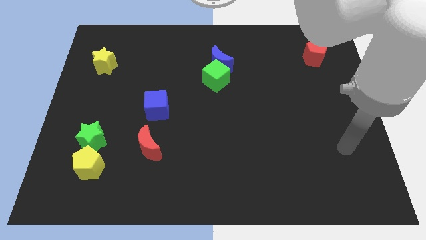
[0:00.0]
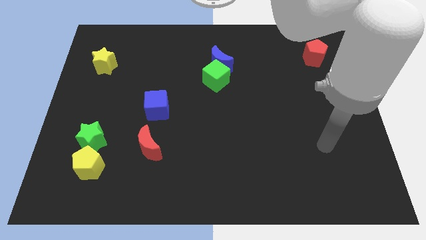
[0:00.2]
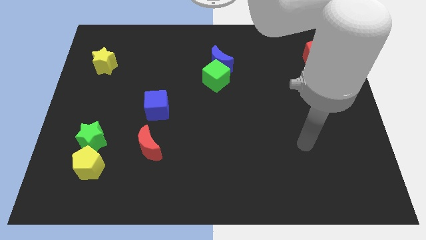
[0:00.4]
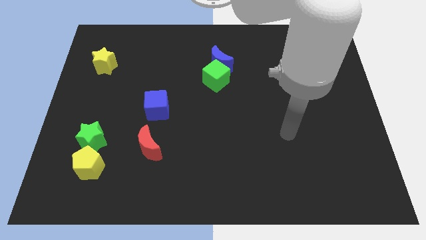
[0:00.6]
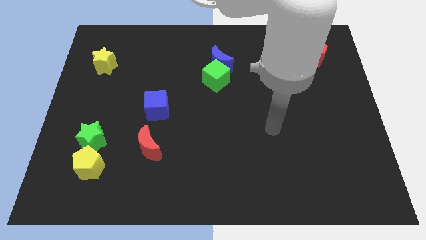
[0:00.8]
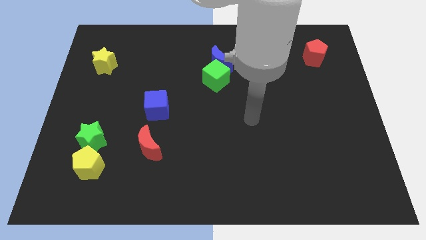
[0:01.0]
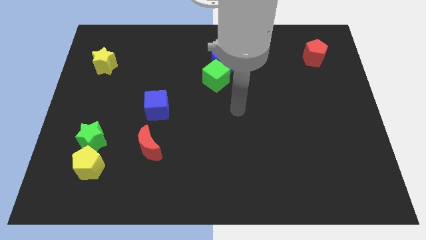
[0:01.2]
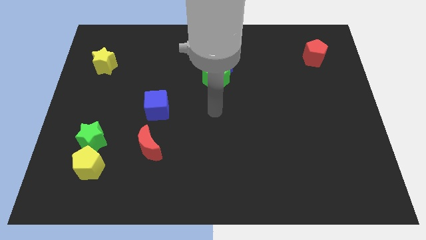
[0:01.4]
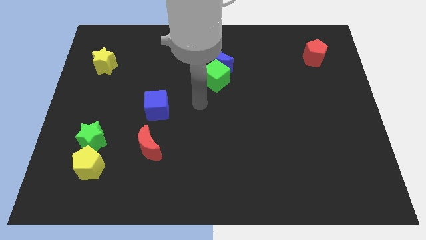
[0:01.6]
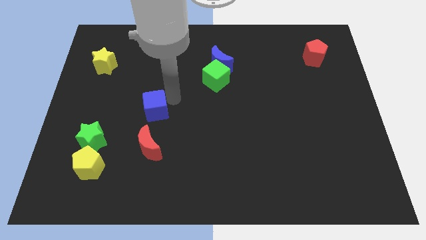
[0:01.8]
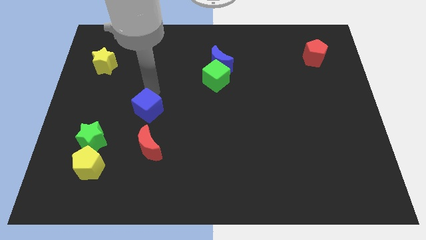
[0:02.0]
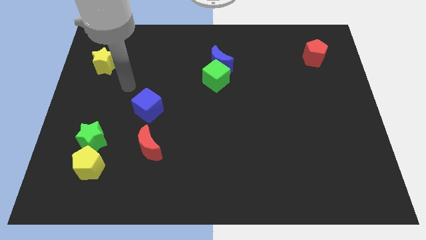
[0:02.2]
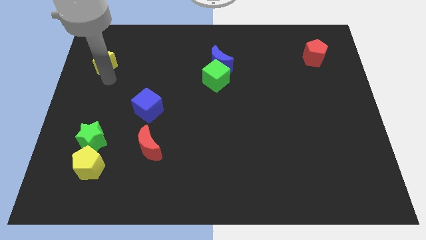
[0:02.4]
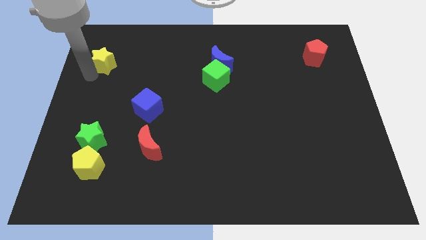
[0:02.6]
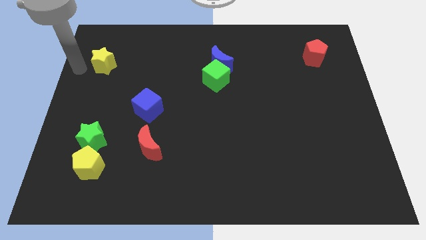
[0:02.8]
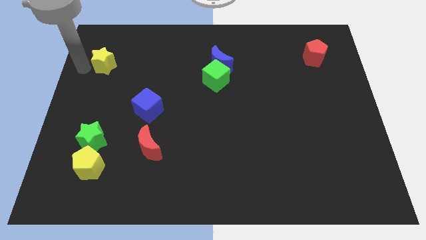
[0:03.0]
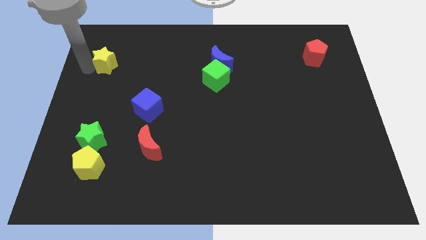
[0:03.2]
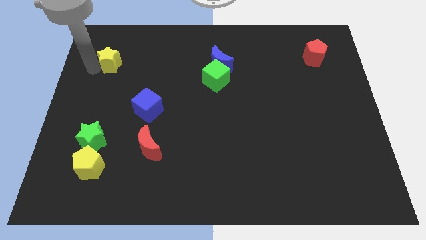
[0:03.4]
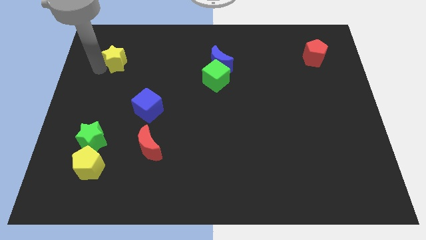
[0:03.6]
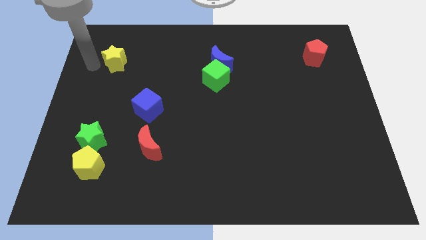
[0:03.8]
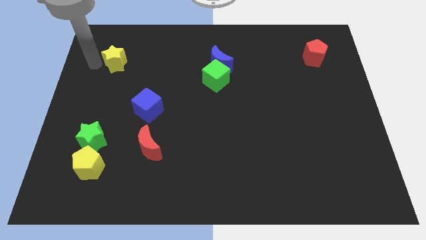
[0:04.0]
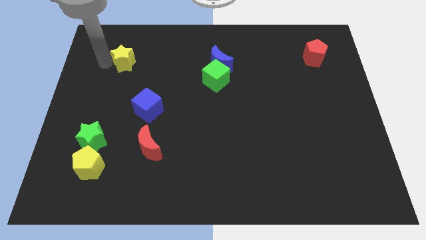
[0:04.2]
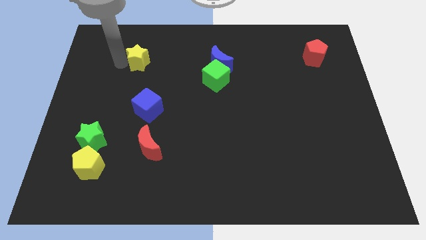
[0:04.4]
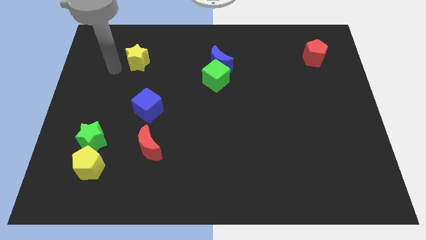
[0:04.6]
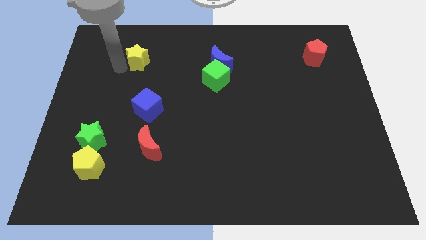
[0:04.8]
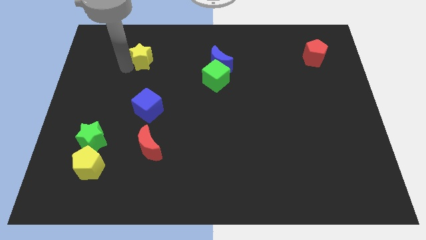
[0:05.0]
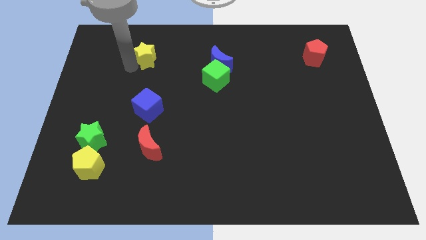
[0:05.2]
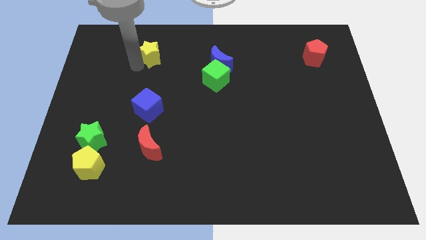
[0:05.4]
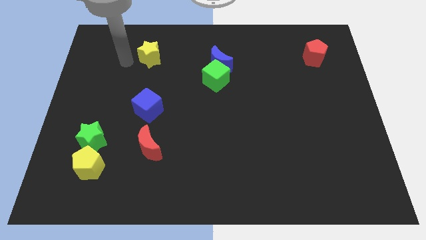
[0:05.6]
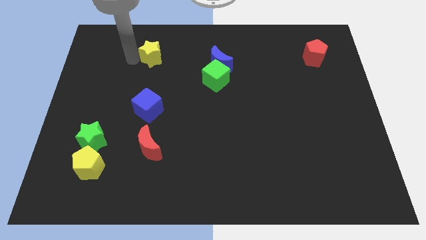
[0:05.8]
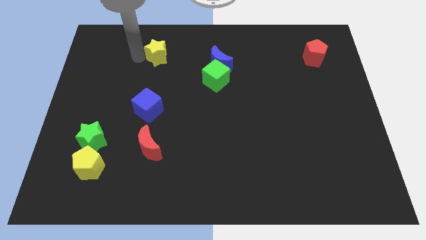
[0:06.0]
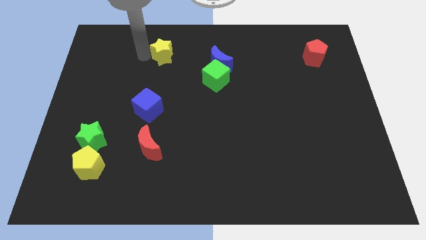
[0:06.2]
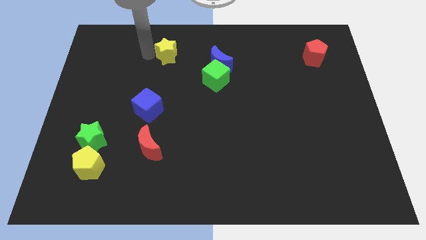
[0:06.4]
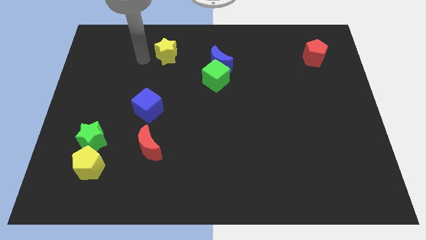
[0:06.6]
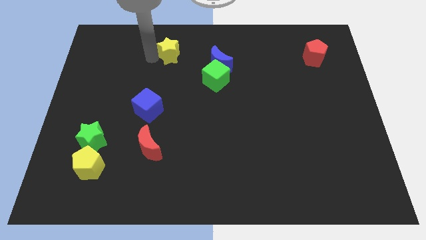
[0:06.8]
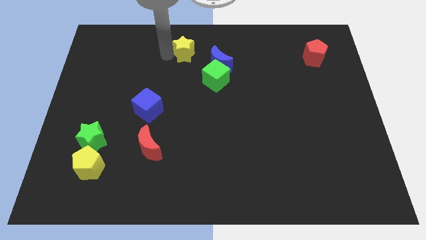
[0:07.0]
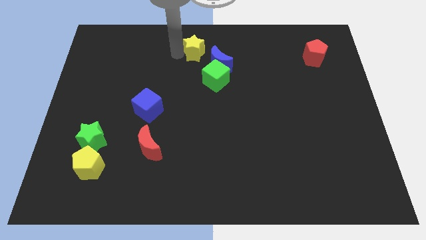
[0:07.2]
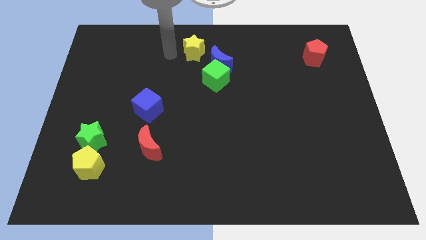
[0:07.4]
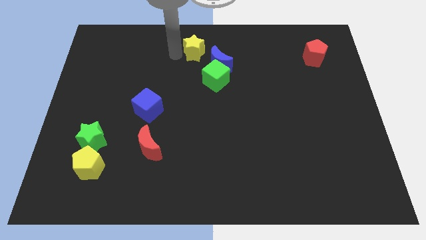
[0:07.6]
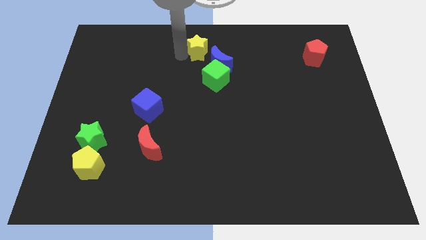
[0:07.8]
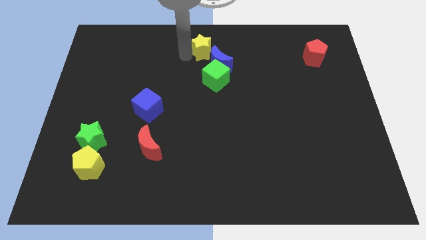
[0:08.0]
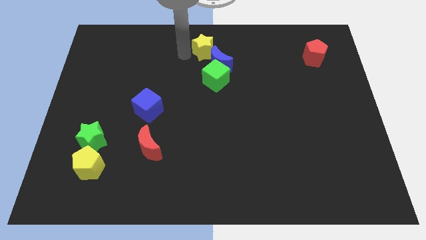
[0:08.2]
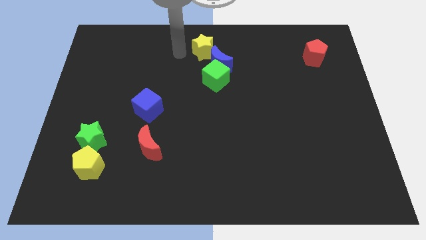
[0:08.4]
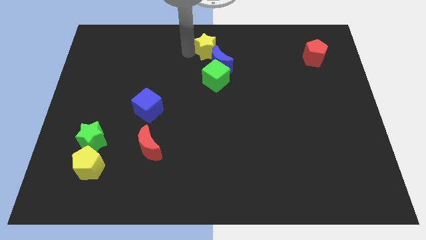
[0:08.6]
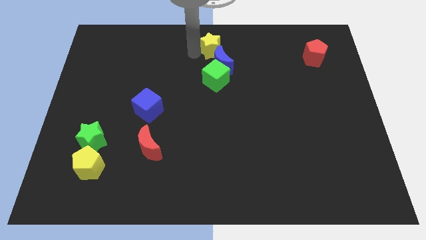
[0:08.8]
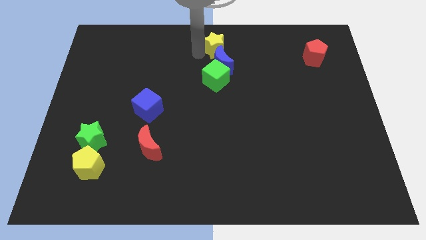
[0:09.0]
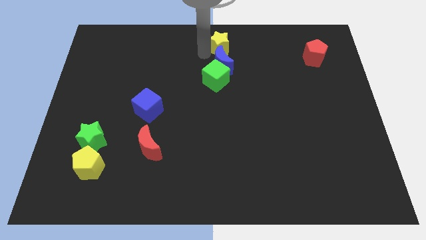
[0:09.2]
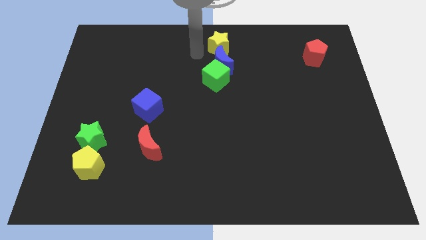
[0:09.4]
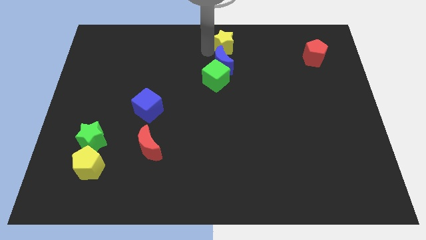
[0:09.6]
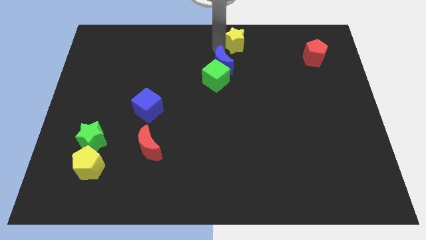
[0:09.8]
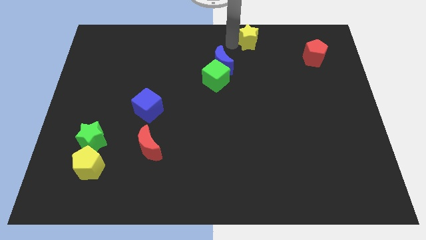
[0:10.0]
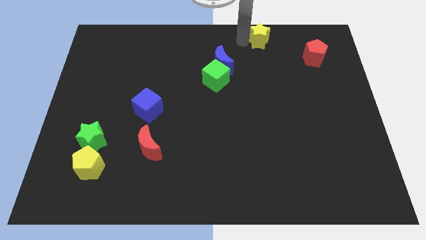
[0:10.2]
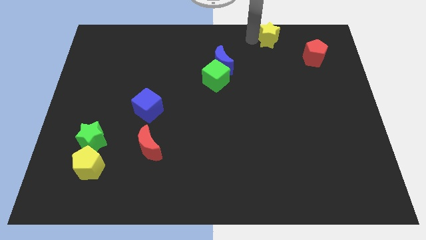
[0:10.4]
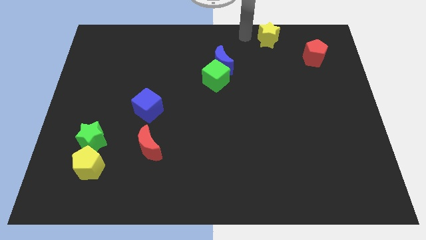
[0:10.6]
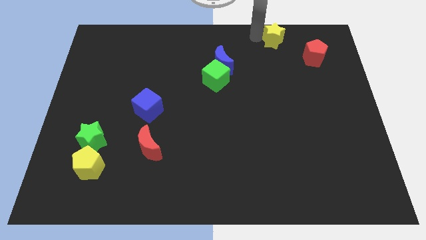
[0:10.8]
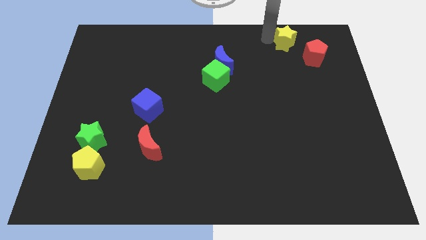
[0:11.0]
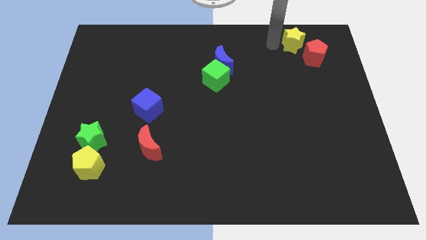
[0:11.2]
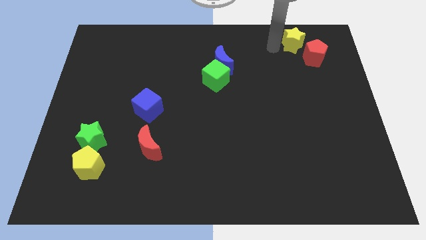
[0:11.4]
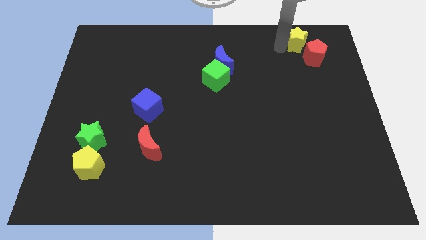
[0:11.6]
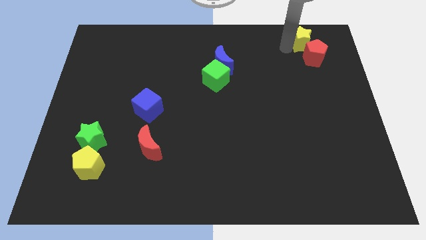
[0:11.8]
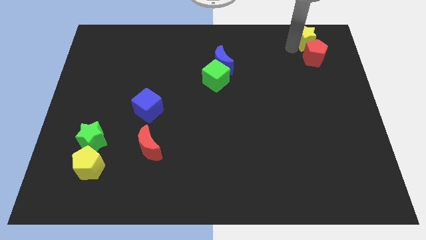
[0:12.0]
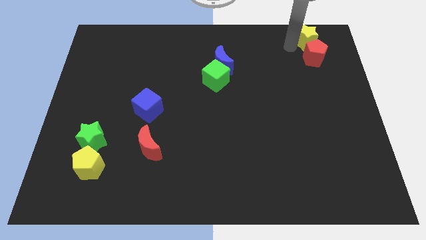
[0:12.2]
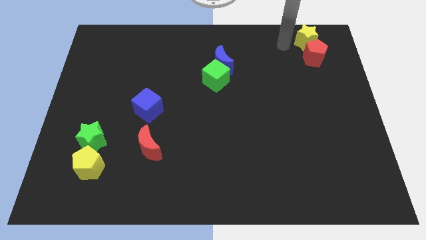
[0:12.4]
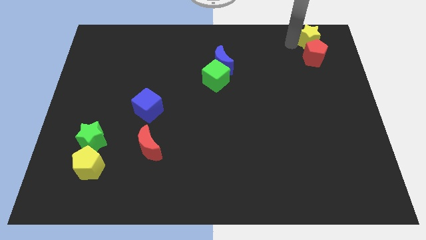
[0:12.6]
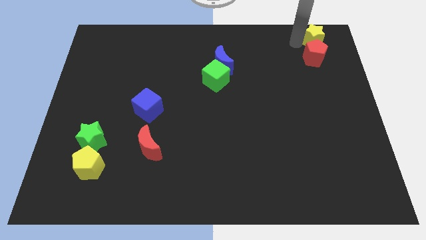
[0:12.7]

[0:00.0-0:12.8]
put the yellow star to the top right of the board
